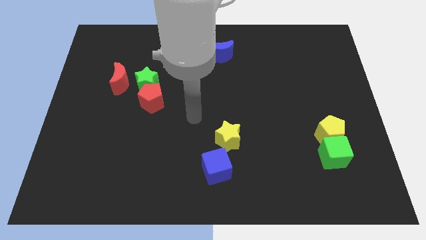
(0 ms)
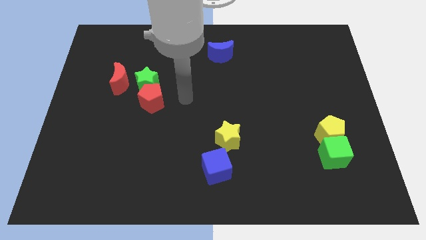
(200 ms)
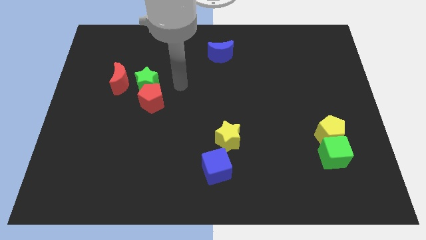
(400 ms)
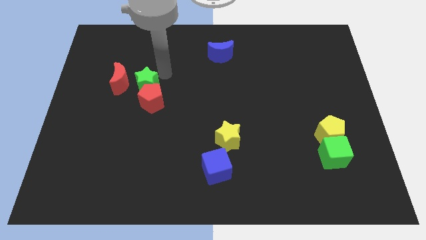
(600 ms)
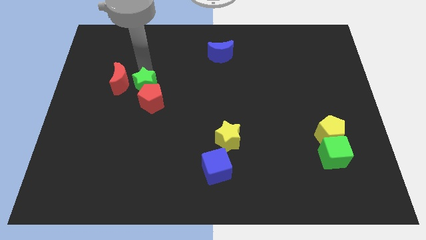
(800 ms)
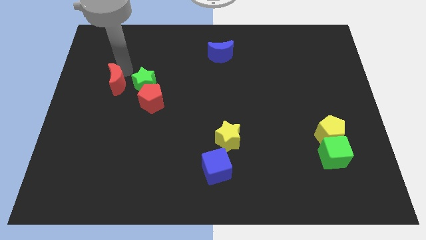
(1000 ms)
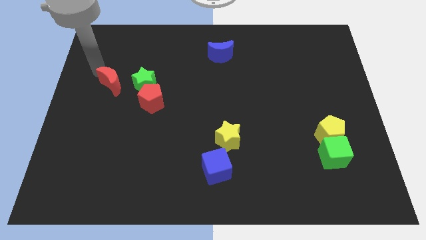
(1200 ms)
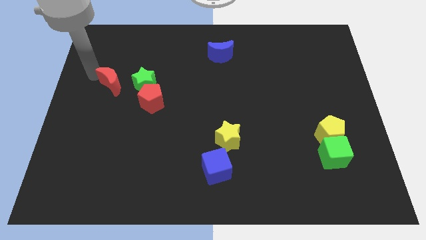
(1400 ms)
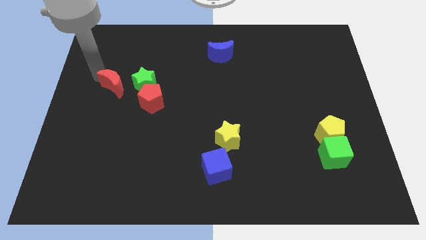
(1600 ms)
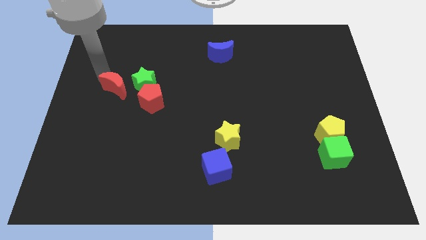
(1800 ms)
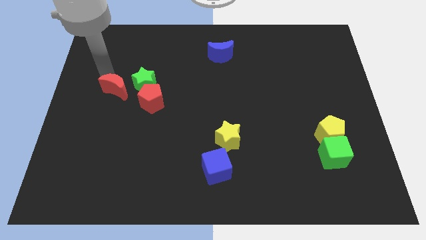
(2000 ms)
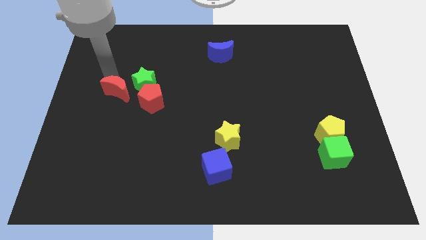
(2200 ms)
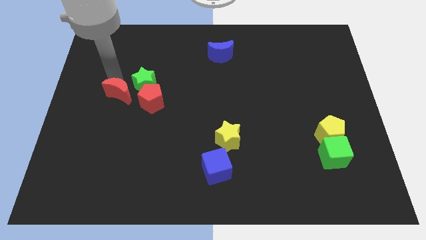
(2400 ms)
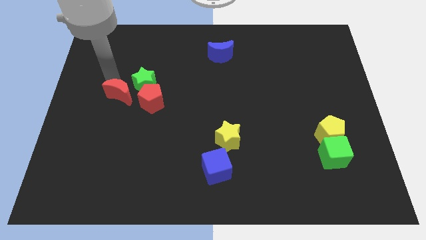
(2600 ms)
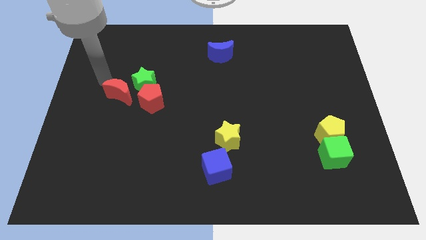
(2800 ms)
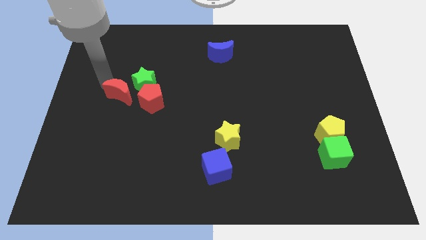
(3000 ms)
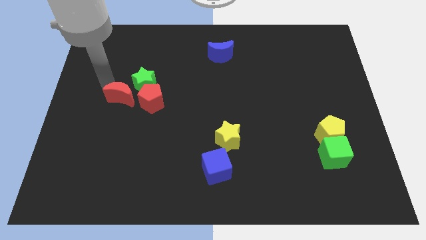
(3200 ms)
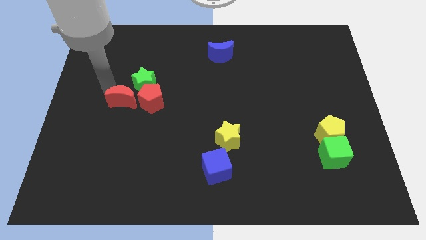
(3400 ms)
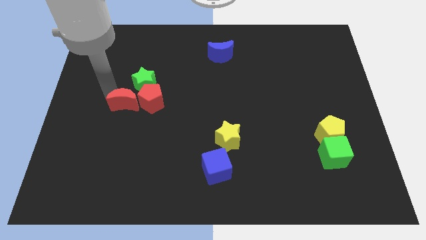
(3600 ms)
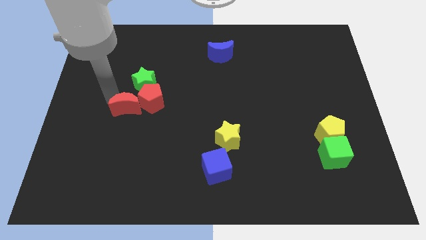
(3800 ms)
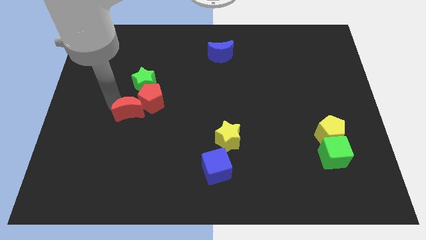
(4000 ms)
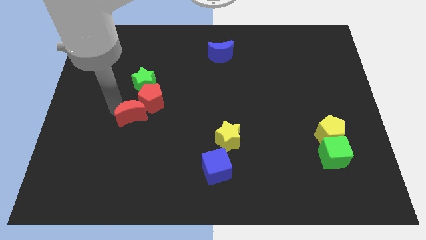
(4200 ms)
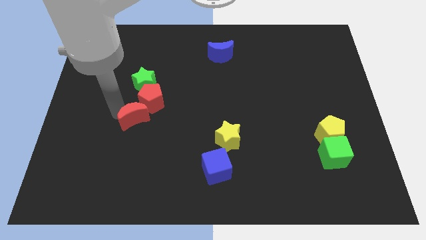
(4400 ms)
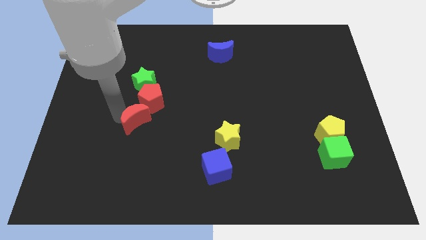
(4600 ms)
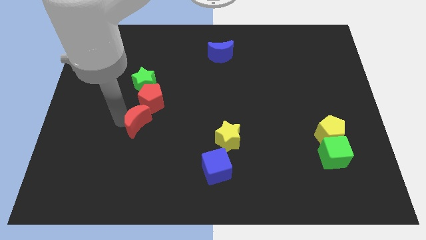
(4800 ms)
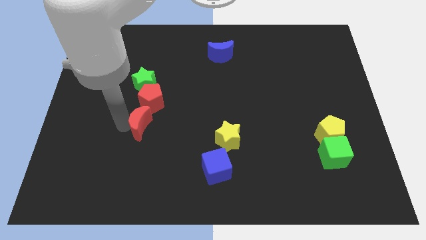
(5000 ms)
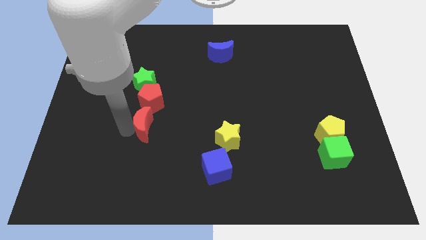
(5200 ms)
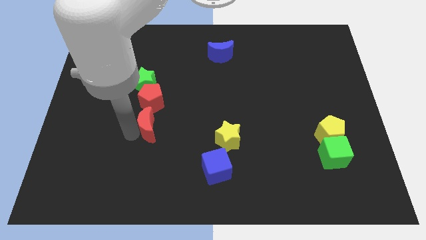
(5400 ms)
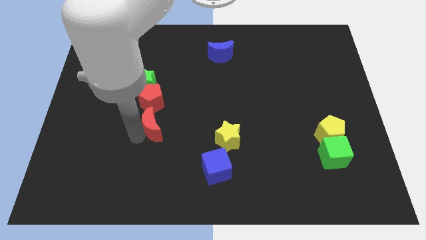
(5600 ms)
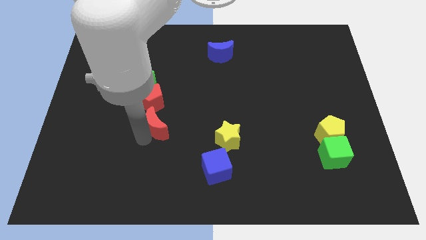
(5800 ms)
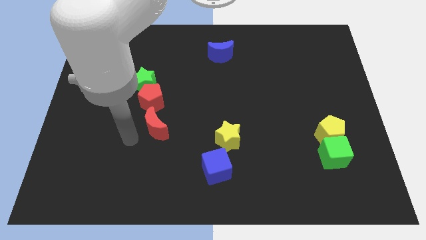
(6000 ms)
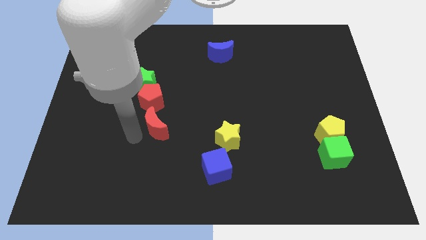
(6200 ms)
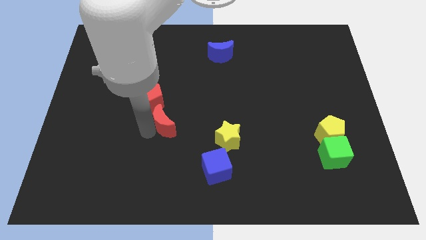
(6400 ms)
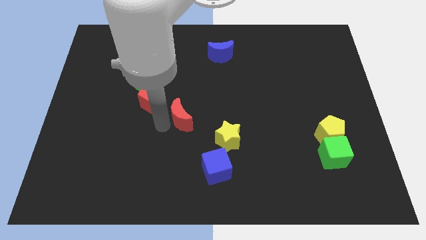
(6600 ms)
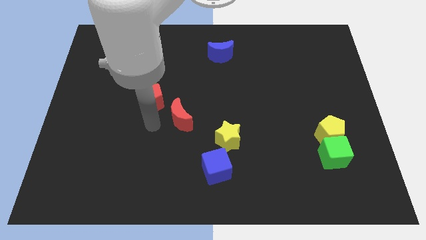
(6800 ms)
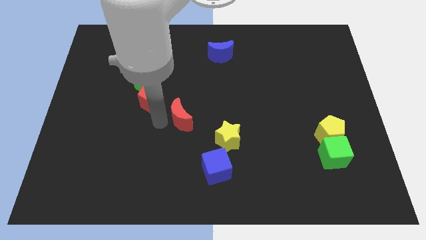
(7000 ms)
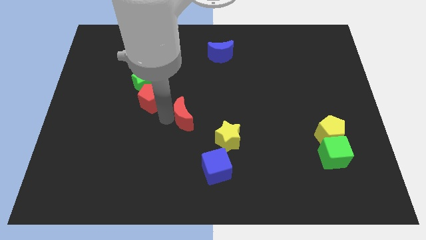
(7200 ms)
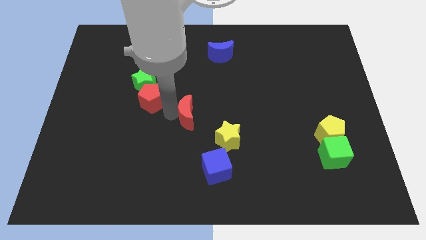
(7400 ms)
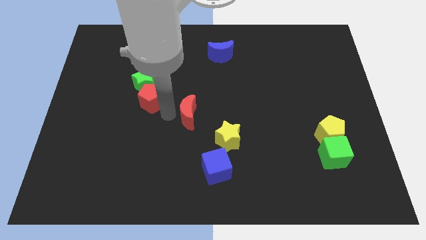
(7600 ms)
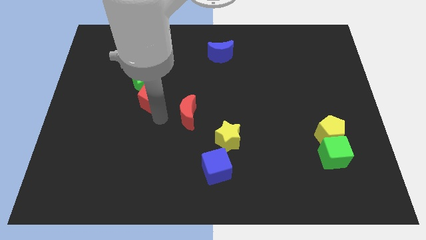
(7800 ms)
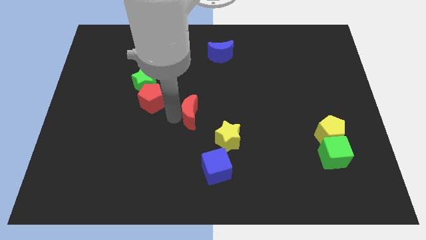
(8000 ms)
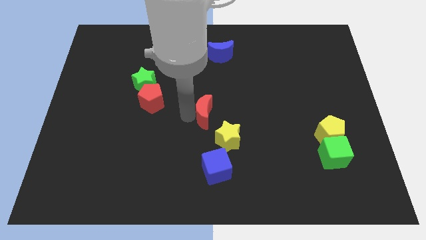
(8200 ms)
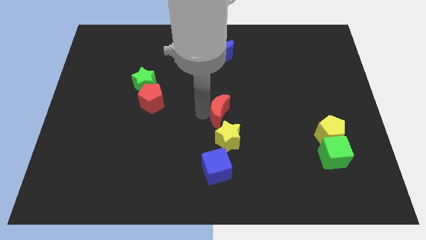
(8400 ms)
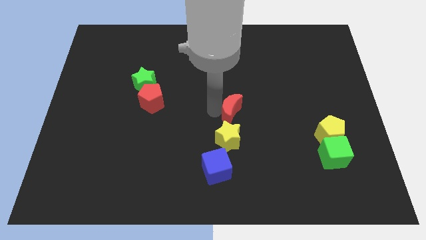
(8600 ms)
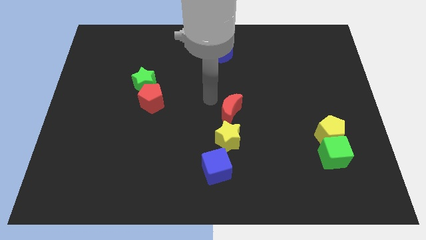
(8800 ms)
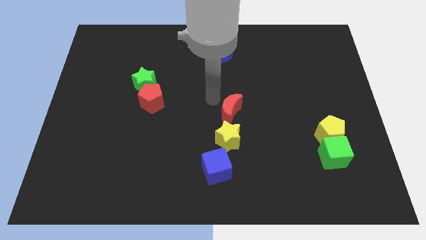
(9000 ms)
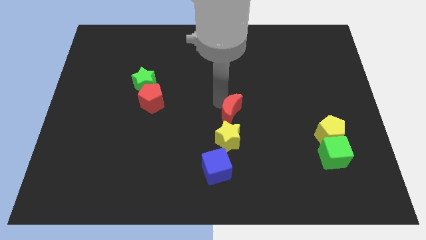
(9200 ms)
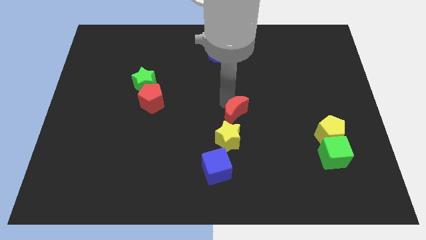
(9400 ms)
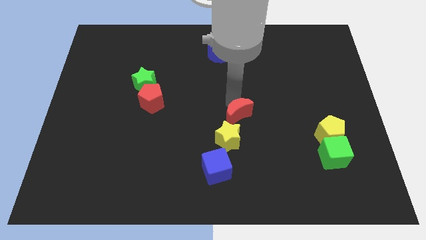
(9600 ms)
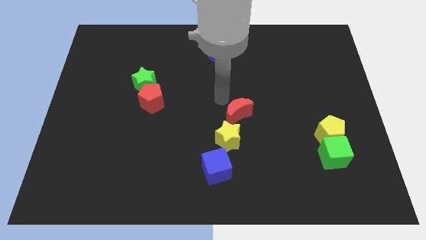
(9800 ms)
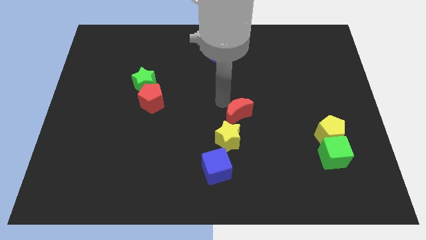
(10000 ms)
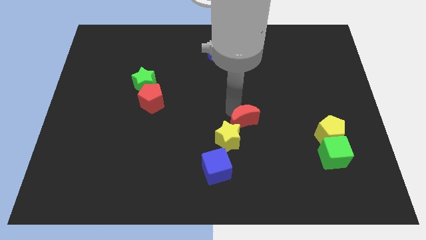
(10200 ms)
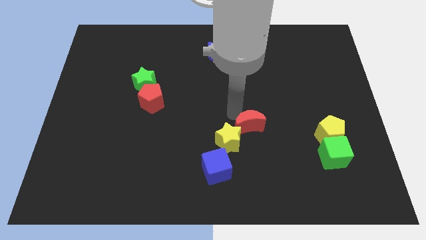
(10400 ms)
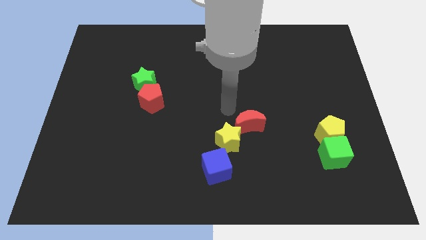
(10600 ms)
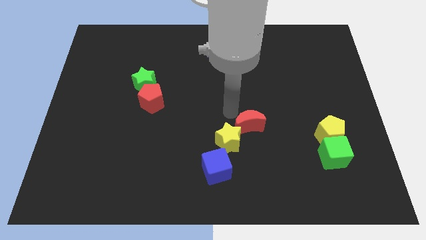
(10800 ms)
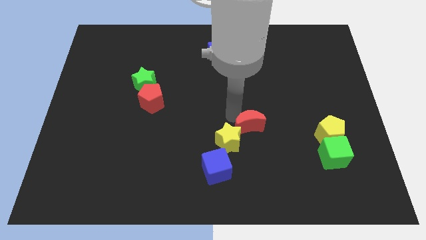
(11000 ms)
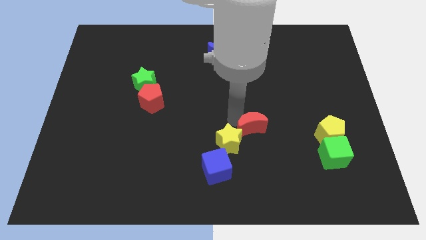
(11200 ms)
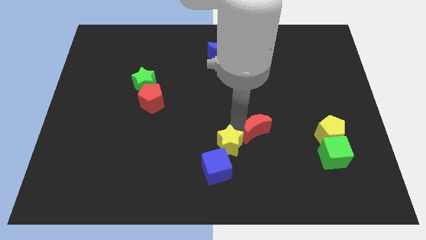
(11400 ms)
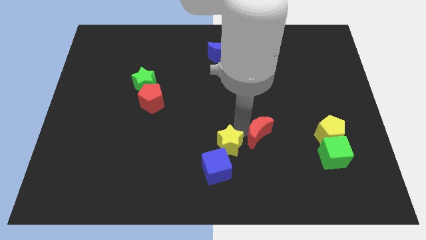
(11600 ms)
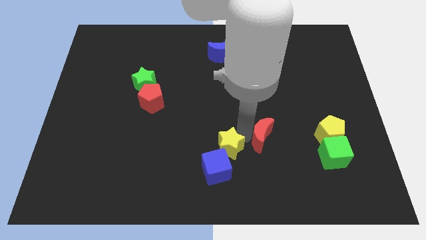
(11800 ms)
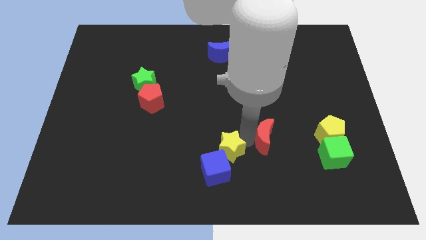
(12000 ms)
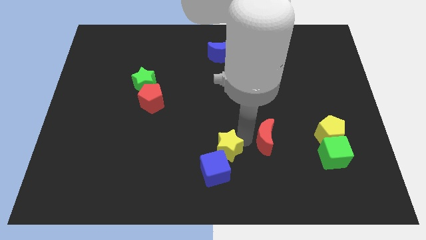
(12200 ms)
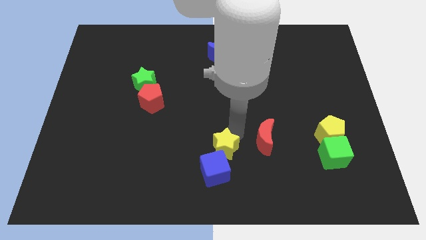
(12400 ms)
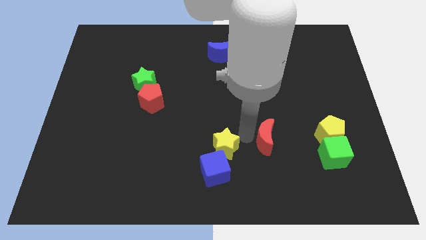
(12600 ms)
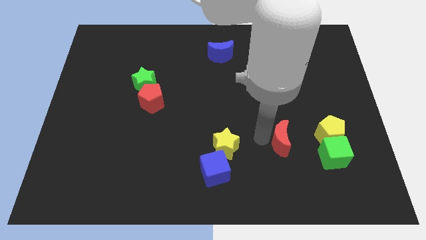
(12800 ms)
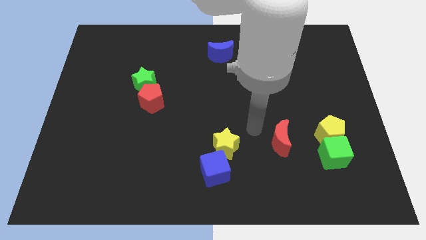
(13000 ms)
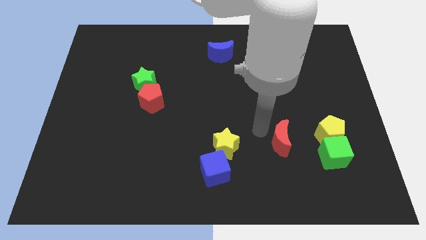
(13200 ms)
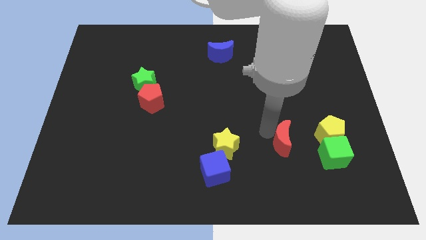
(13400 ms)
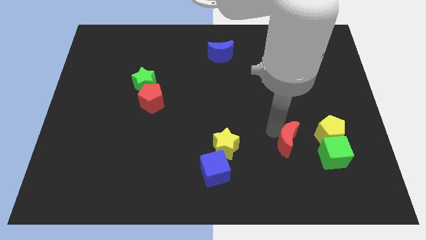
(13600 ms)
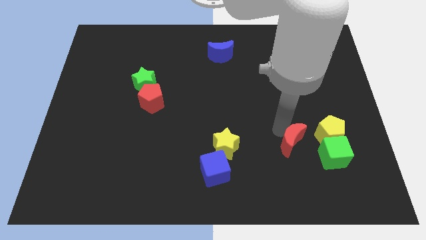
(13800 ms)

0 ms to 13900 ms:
move the red moon to the bottom left side of the yellow pentagon
